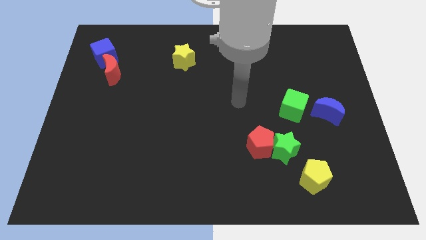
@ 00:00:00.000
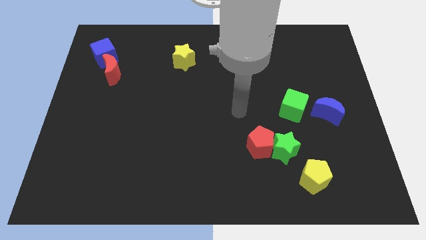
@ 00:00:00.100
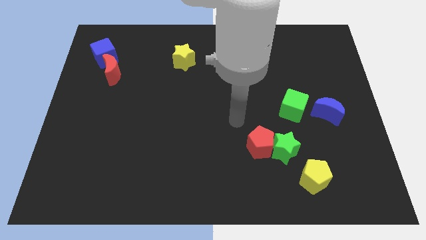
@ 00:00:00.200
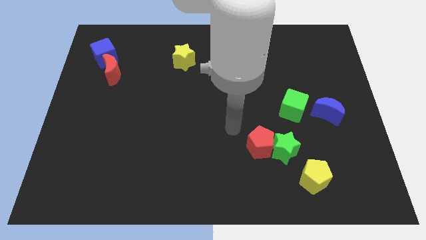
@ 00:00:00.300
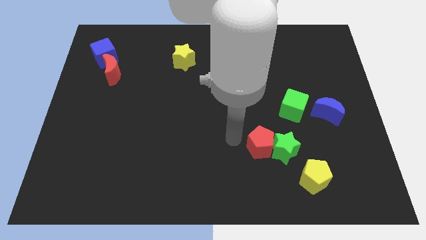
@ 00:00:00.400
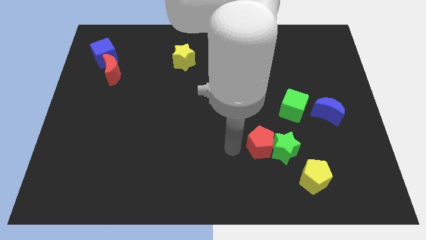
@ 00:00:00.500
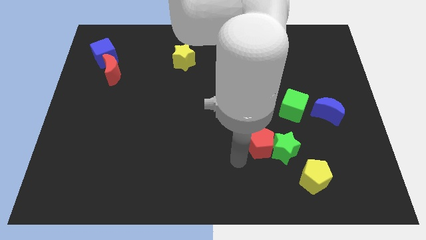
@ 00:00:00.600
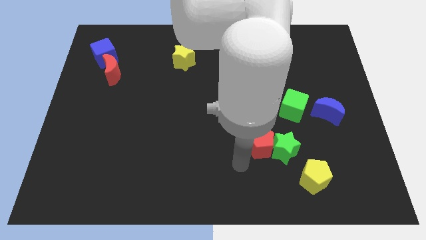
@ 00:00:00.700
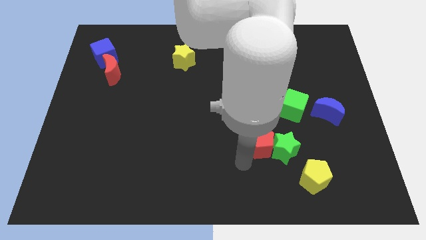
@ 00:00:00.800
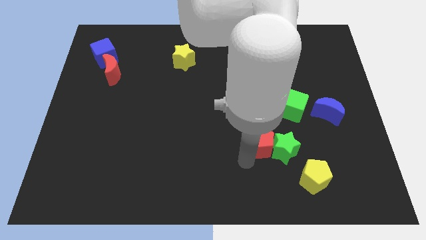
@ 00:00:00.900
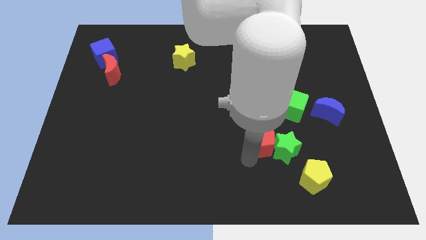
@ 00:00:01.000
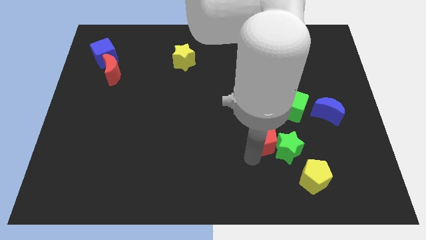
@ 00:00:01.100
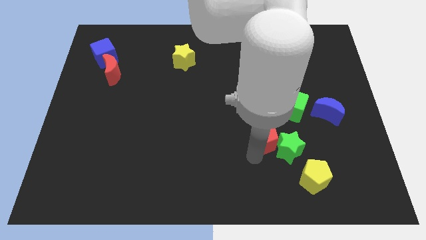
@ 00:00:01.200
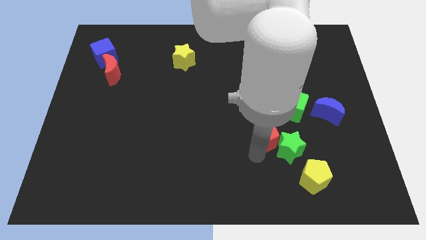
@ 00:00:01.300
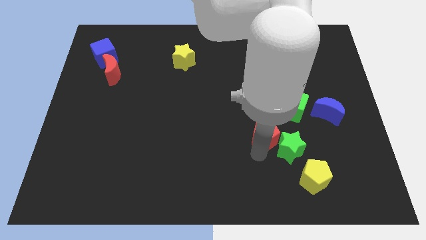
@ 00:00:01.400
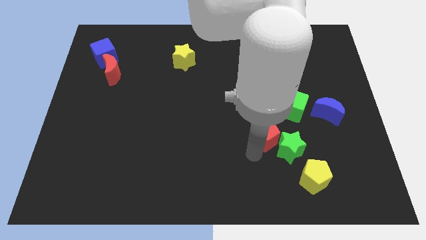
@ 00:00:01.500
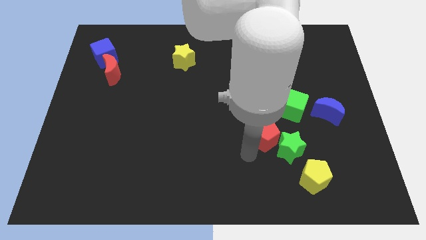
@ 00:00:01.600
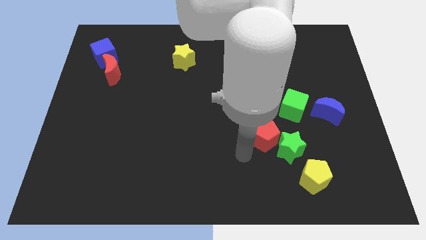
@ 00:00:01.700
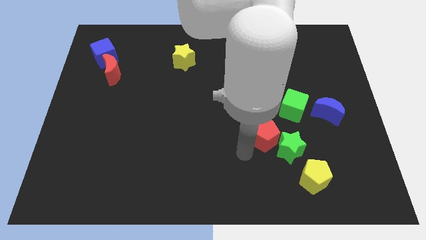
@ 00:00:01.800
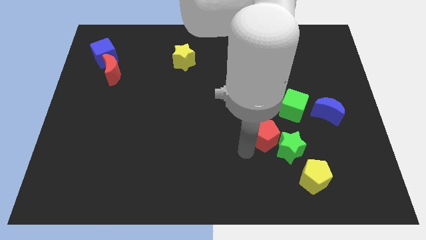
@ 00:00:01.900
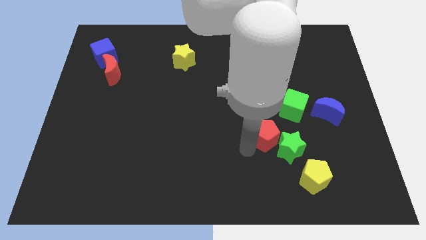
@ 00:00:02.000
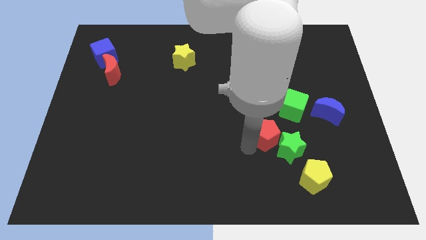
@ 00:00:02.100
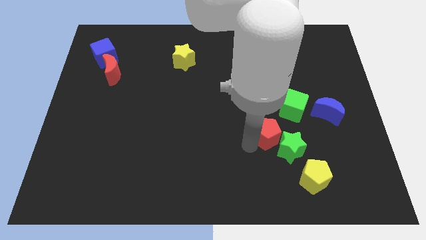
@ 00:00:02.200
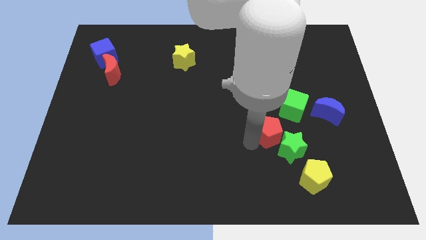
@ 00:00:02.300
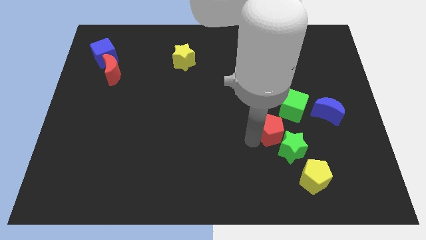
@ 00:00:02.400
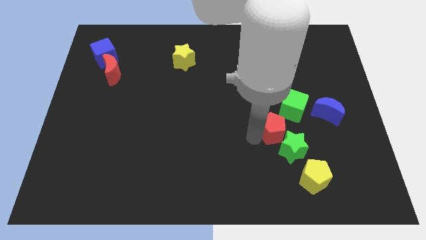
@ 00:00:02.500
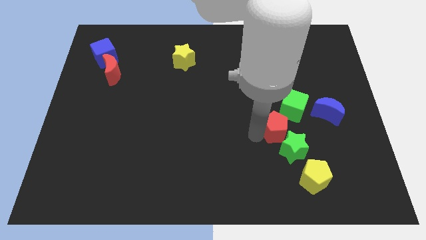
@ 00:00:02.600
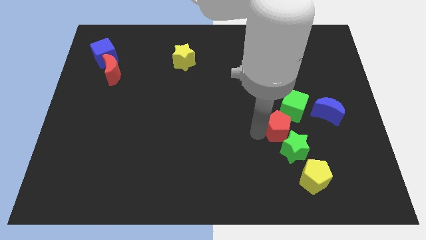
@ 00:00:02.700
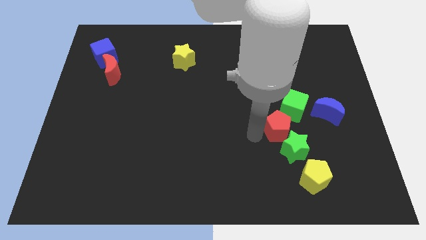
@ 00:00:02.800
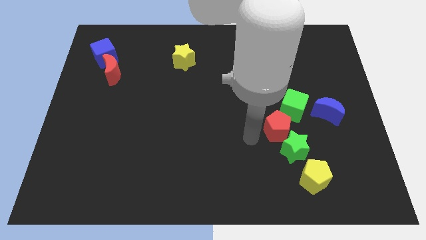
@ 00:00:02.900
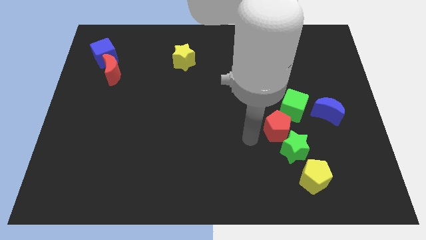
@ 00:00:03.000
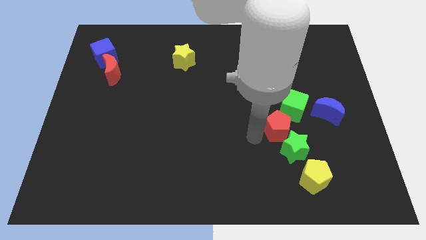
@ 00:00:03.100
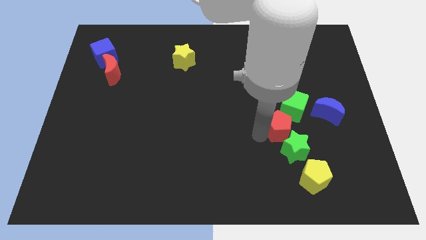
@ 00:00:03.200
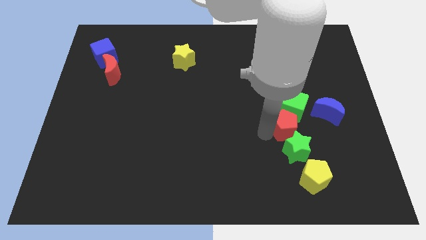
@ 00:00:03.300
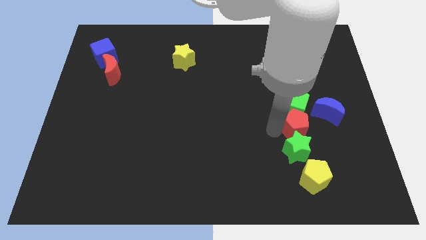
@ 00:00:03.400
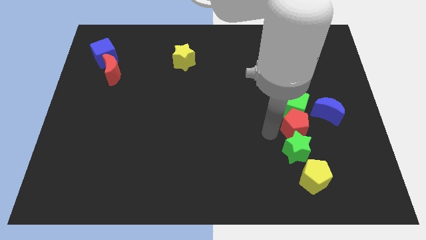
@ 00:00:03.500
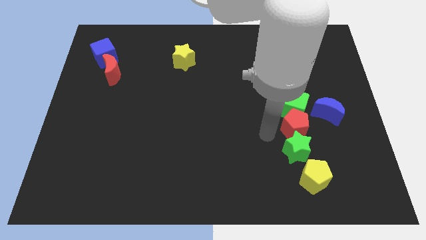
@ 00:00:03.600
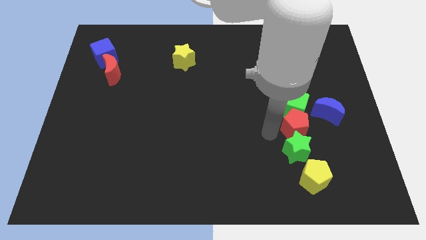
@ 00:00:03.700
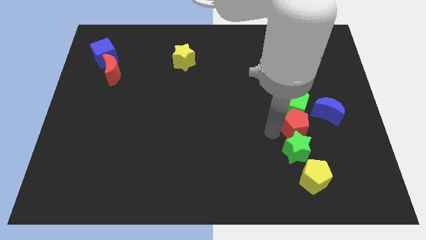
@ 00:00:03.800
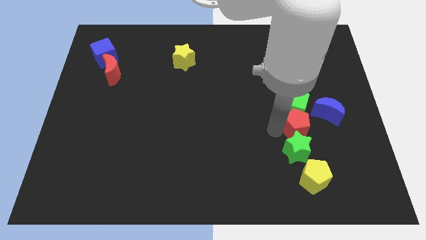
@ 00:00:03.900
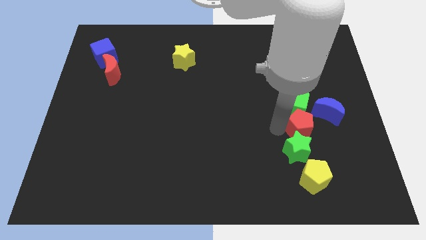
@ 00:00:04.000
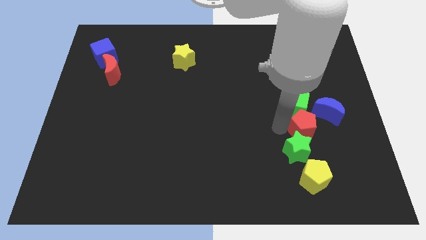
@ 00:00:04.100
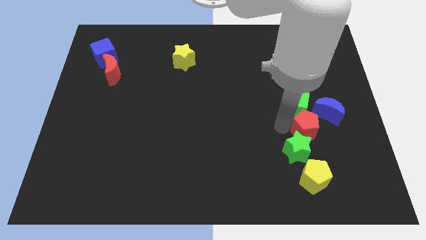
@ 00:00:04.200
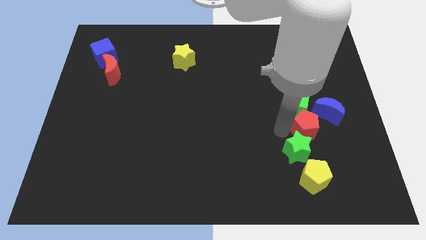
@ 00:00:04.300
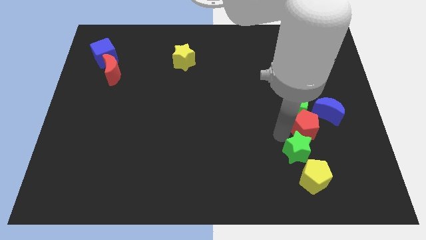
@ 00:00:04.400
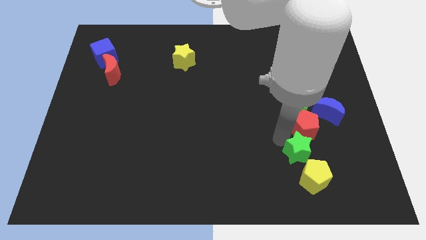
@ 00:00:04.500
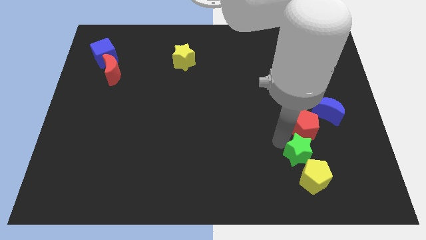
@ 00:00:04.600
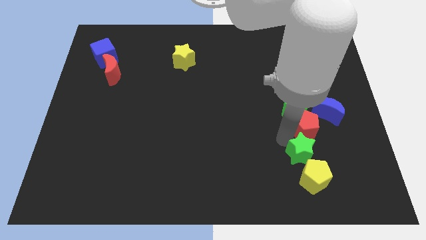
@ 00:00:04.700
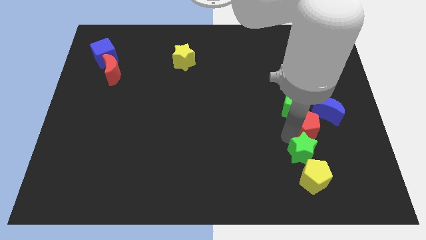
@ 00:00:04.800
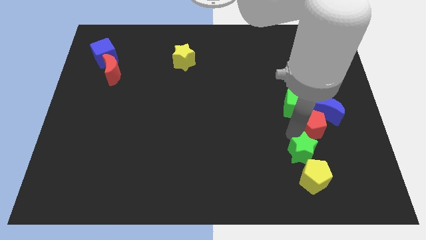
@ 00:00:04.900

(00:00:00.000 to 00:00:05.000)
push the red pentagon close to the blue moon

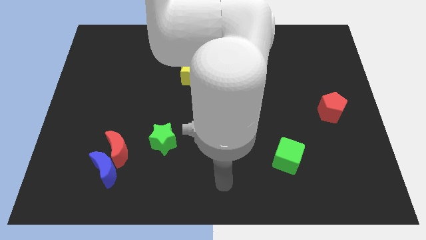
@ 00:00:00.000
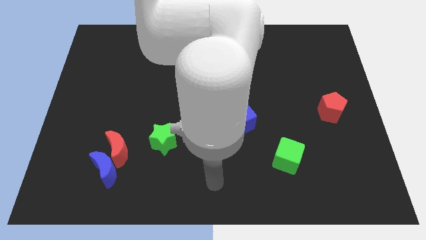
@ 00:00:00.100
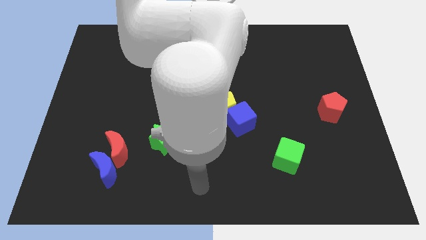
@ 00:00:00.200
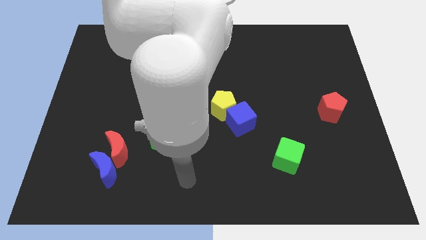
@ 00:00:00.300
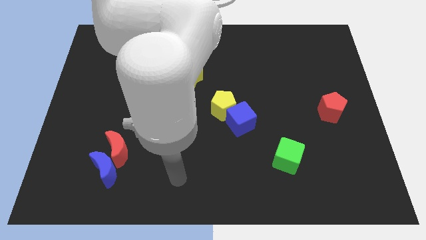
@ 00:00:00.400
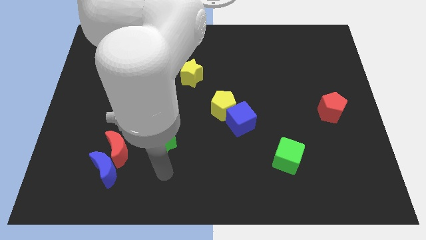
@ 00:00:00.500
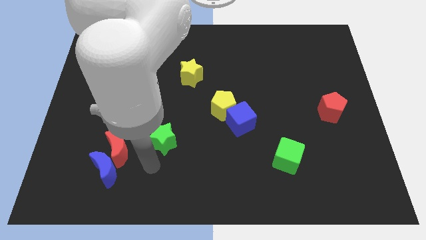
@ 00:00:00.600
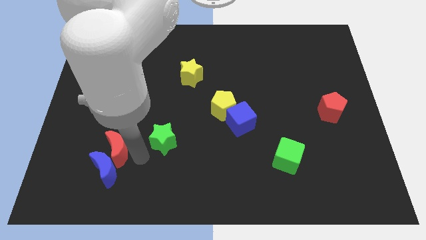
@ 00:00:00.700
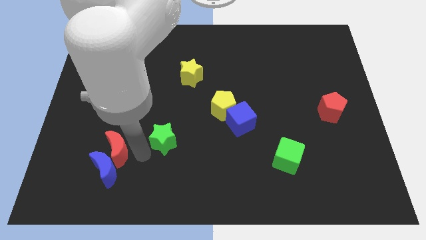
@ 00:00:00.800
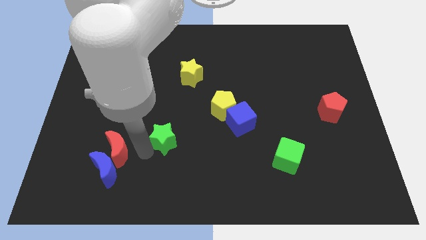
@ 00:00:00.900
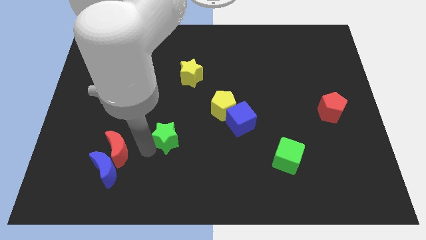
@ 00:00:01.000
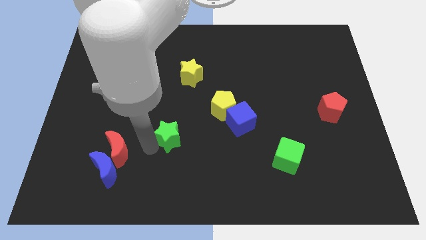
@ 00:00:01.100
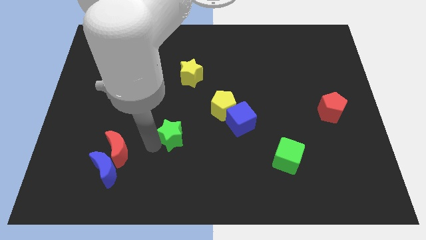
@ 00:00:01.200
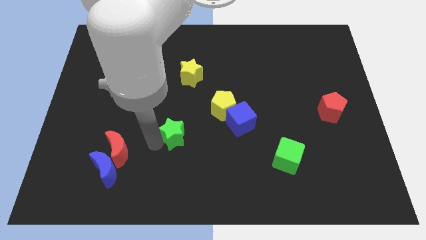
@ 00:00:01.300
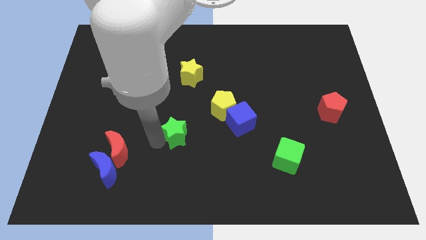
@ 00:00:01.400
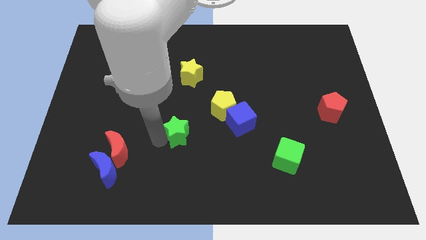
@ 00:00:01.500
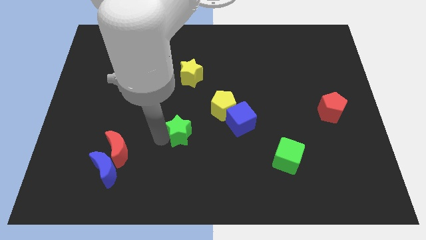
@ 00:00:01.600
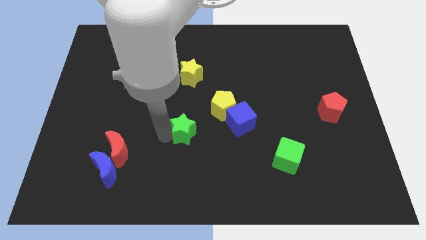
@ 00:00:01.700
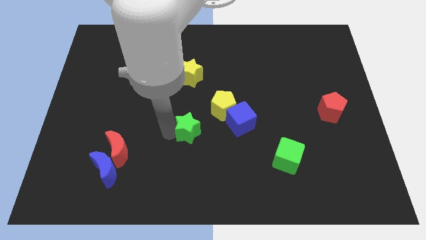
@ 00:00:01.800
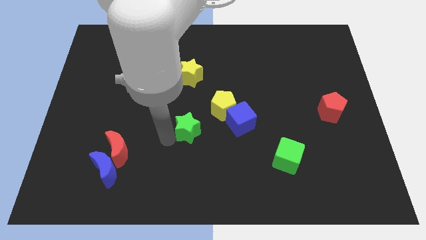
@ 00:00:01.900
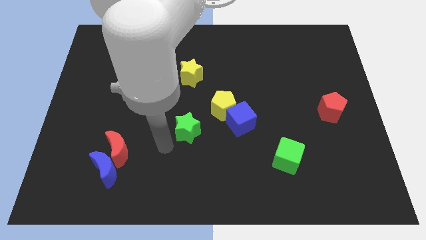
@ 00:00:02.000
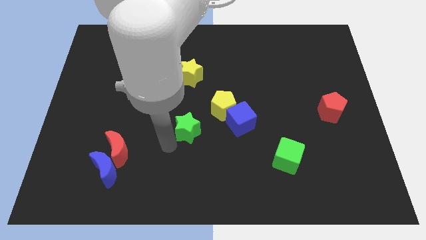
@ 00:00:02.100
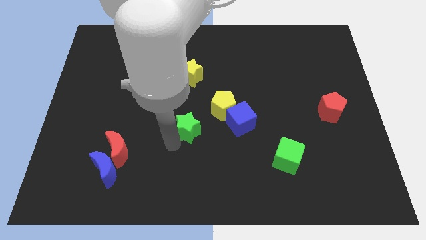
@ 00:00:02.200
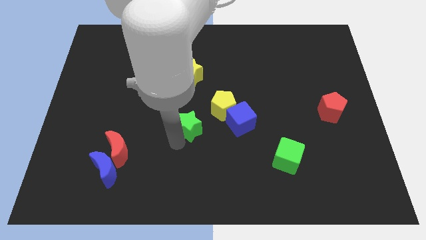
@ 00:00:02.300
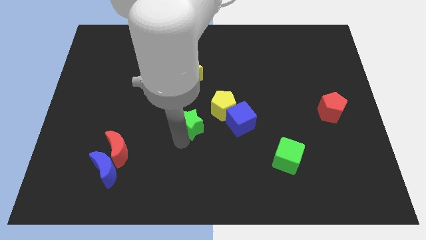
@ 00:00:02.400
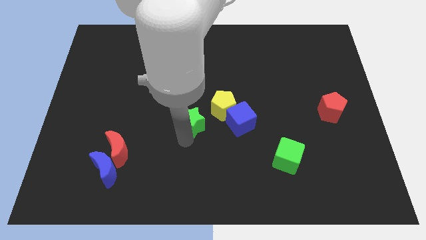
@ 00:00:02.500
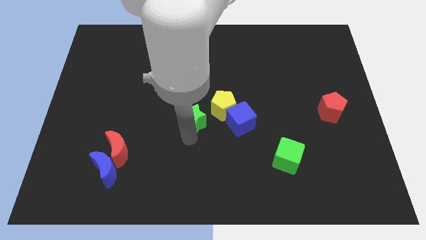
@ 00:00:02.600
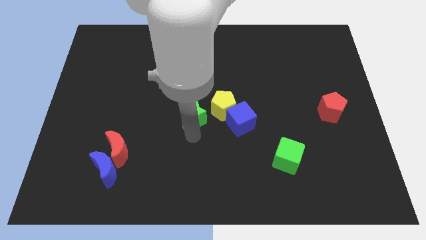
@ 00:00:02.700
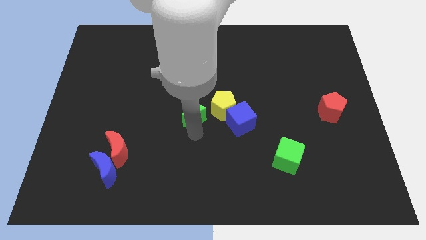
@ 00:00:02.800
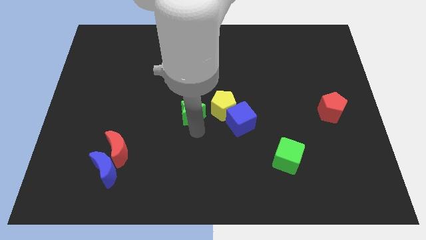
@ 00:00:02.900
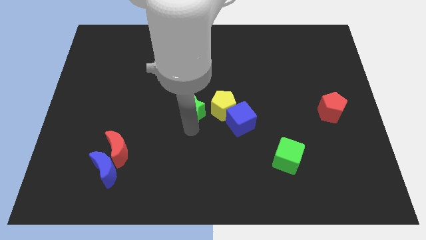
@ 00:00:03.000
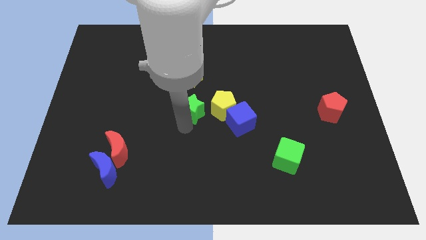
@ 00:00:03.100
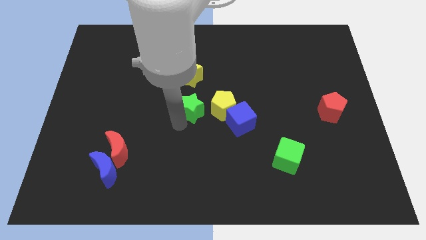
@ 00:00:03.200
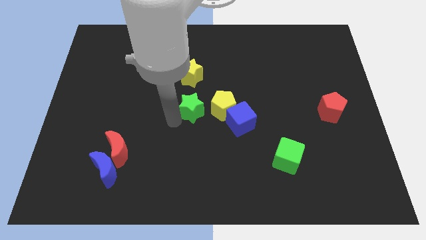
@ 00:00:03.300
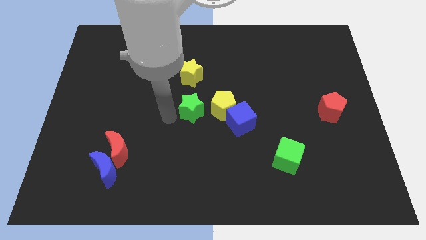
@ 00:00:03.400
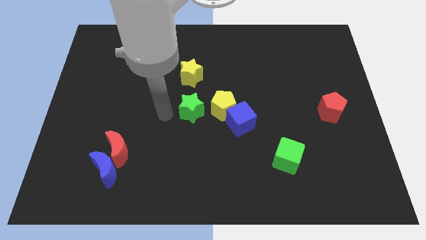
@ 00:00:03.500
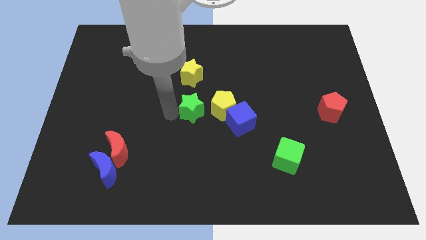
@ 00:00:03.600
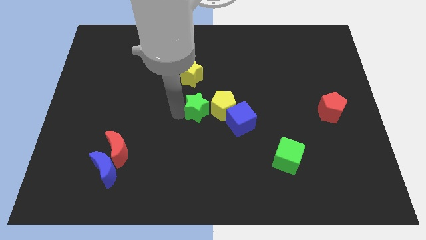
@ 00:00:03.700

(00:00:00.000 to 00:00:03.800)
put the green star close to the yellow pentagon
